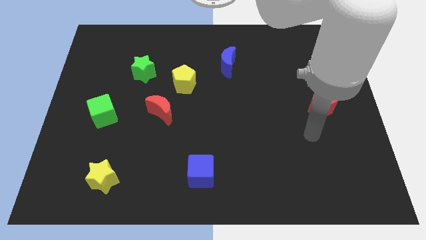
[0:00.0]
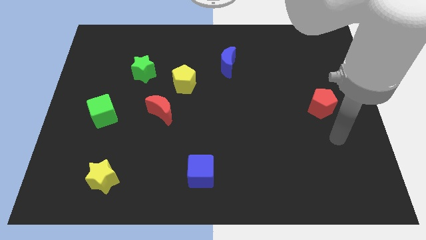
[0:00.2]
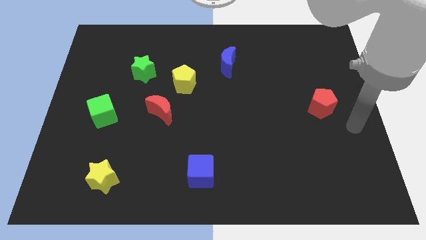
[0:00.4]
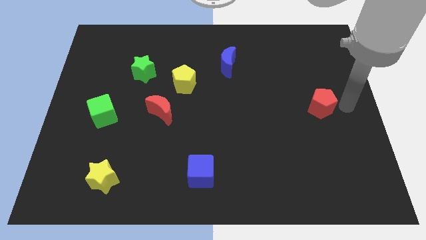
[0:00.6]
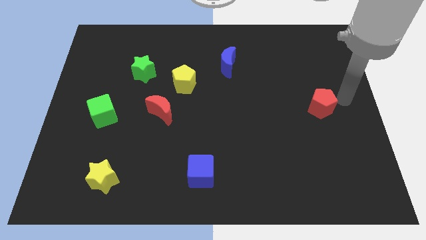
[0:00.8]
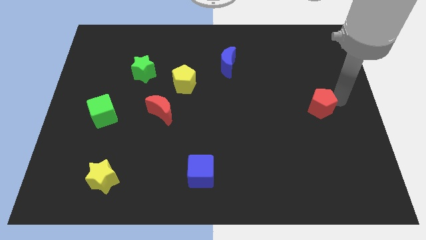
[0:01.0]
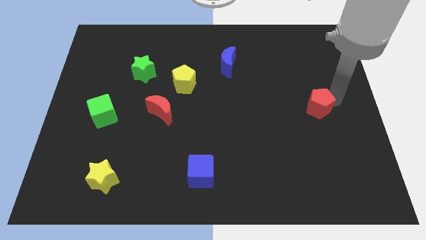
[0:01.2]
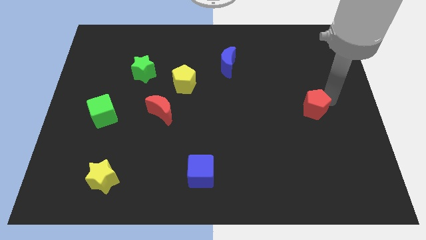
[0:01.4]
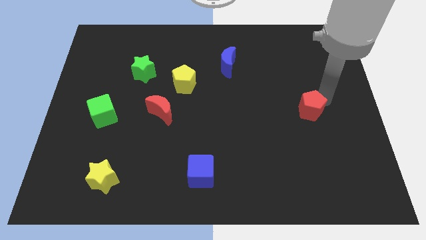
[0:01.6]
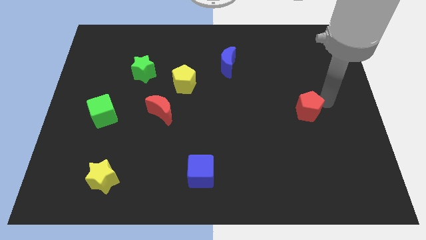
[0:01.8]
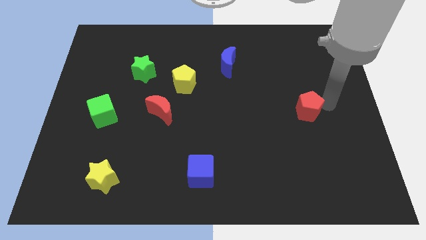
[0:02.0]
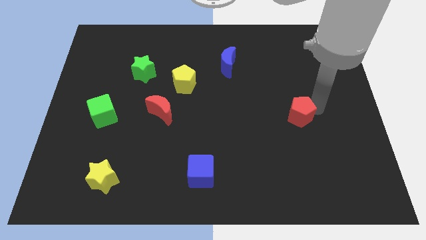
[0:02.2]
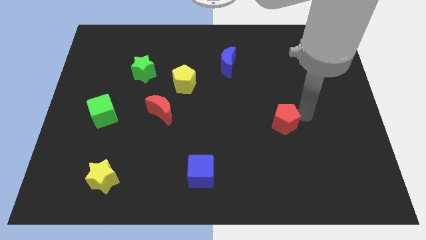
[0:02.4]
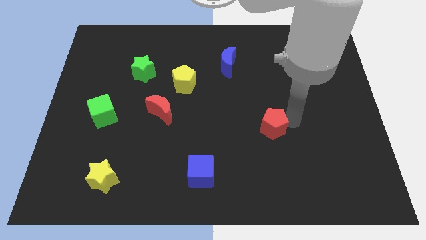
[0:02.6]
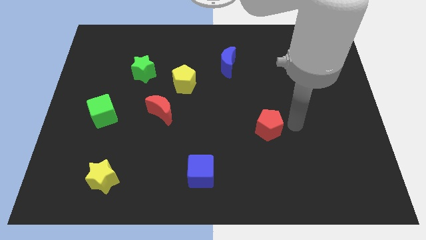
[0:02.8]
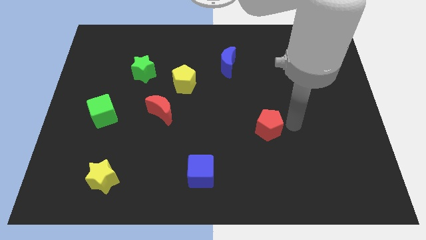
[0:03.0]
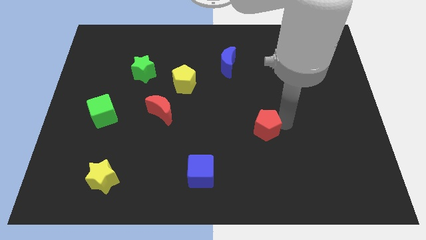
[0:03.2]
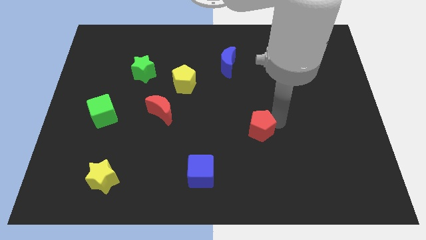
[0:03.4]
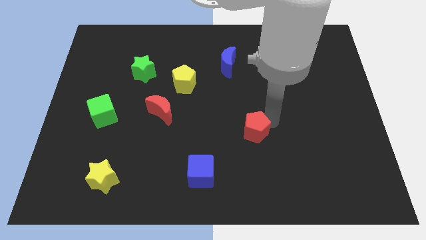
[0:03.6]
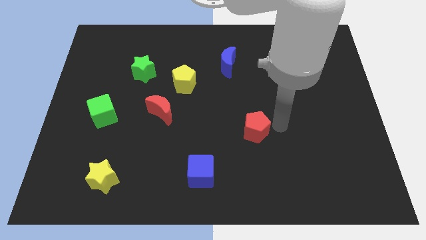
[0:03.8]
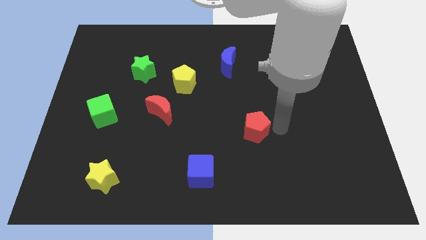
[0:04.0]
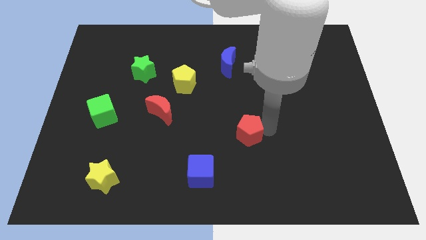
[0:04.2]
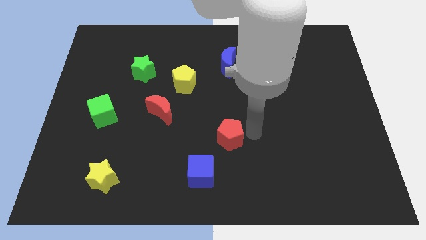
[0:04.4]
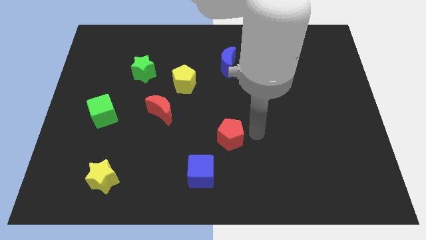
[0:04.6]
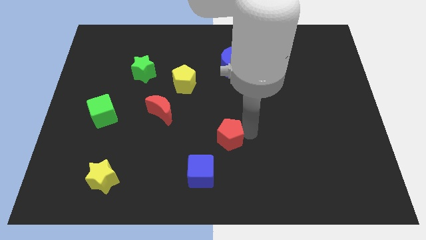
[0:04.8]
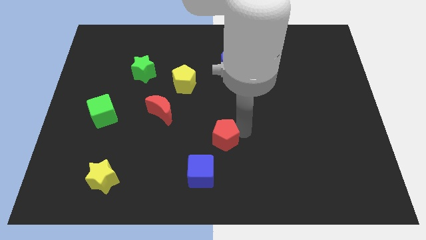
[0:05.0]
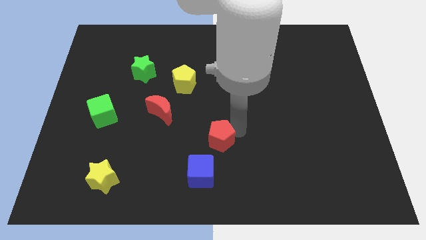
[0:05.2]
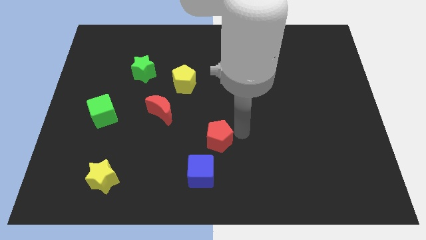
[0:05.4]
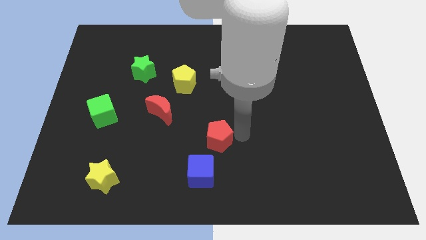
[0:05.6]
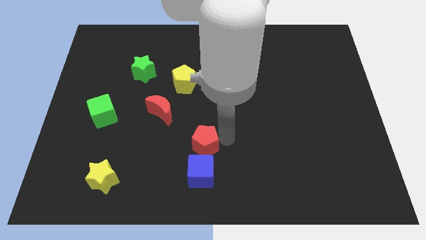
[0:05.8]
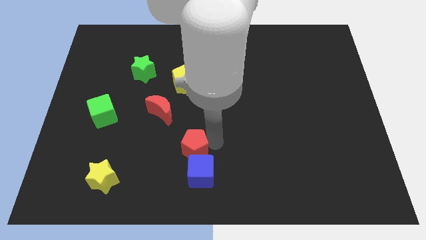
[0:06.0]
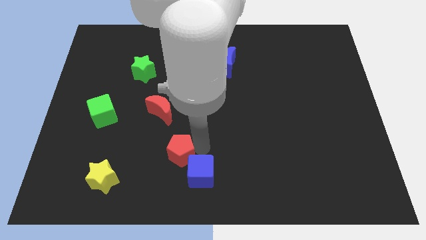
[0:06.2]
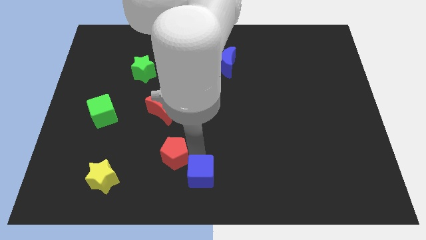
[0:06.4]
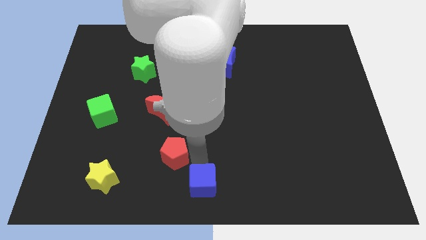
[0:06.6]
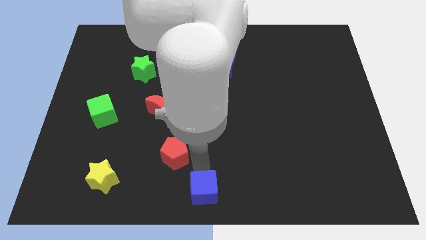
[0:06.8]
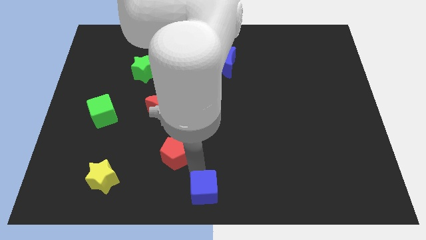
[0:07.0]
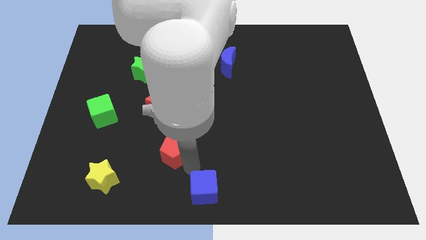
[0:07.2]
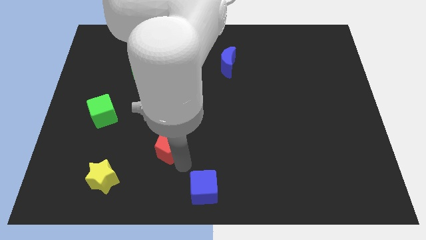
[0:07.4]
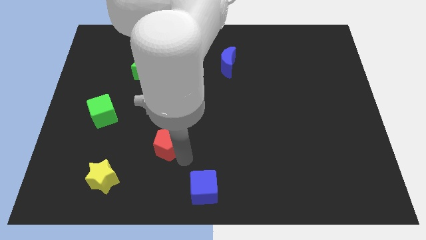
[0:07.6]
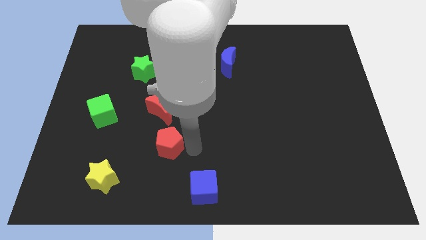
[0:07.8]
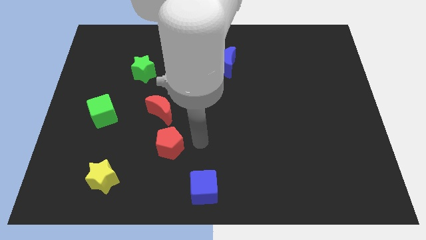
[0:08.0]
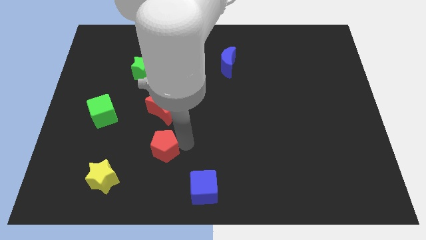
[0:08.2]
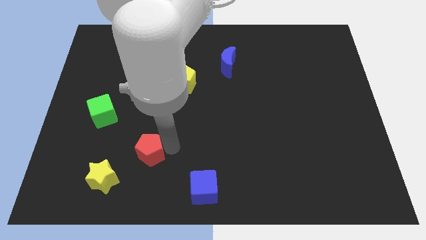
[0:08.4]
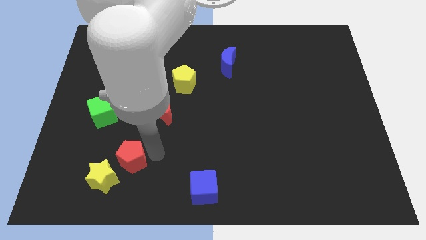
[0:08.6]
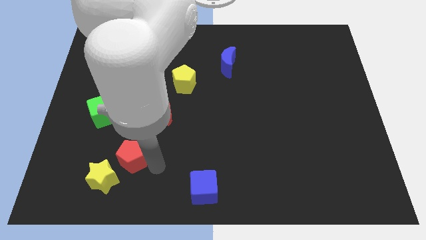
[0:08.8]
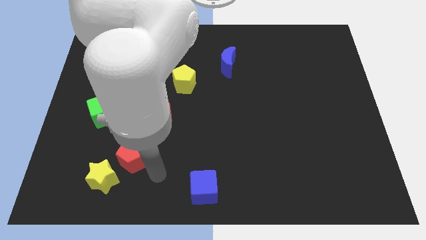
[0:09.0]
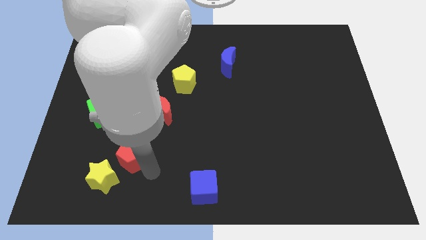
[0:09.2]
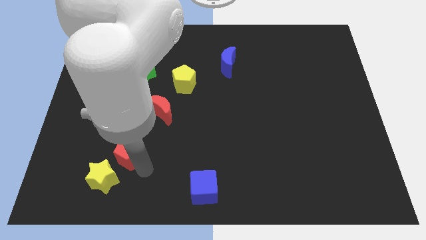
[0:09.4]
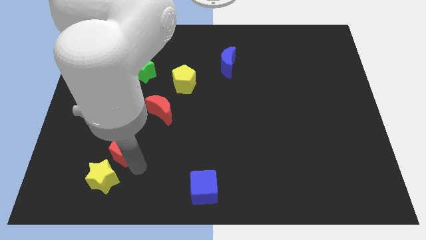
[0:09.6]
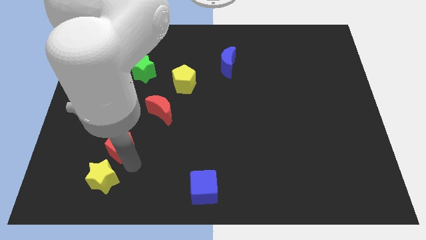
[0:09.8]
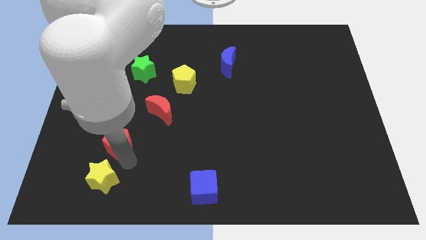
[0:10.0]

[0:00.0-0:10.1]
put the red pentagon to the bottom side of the green cube

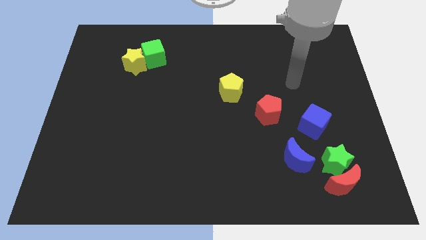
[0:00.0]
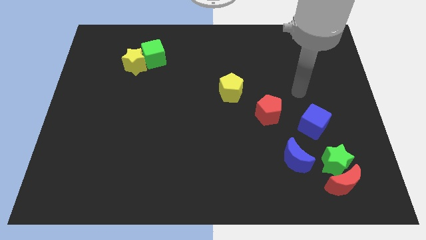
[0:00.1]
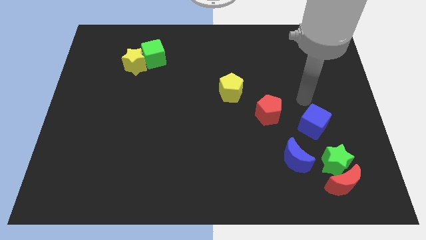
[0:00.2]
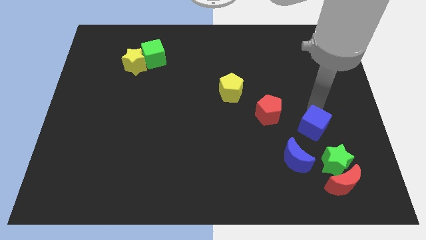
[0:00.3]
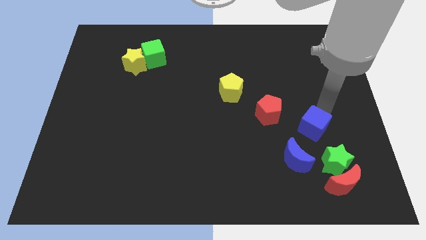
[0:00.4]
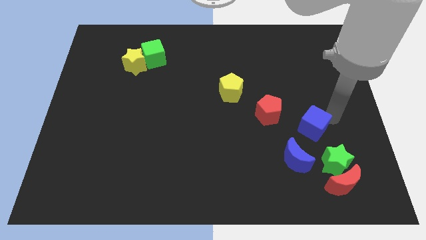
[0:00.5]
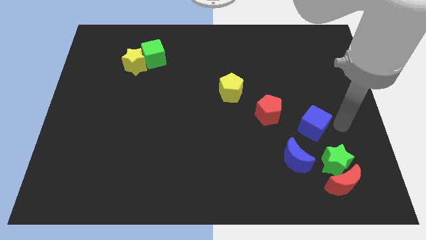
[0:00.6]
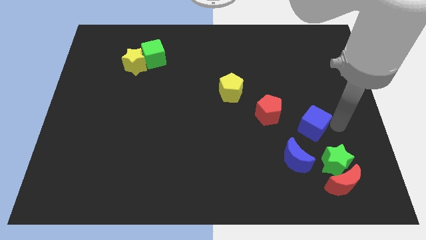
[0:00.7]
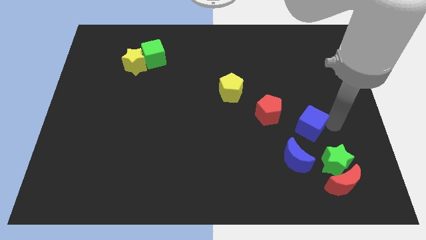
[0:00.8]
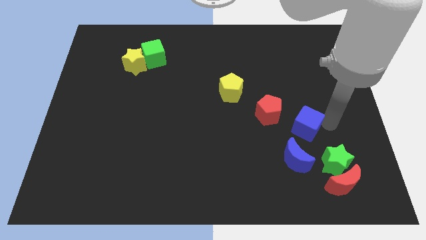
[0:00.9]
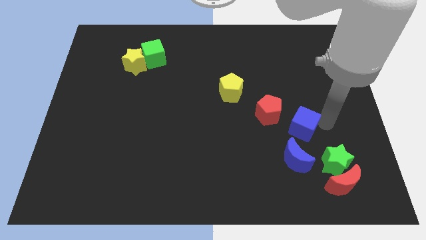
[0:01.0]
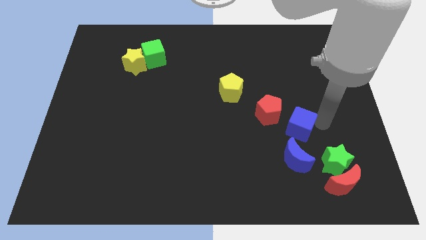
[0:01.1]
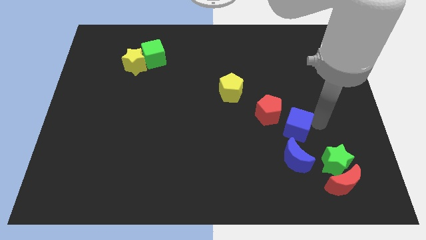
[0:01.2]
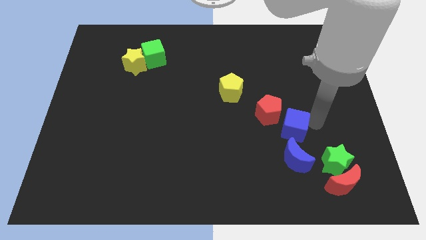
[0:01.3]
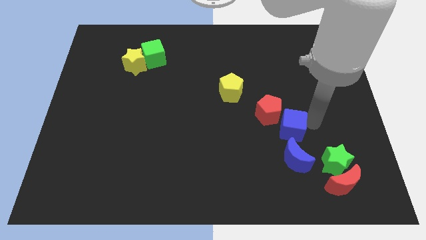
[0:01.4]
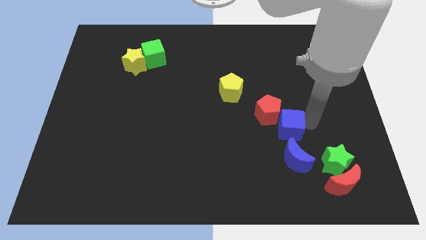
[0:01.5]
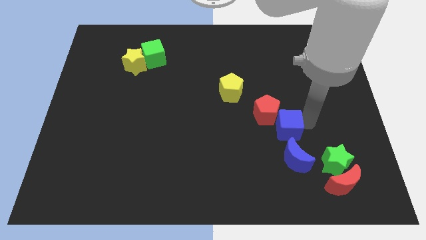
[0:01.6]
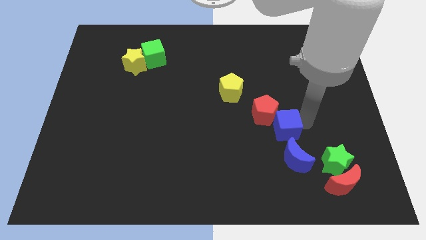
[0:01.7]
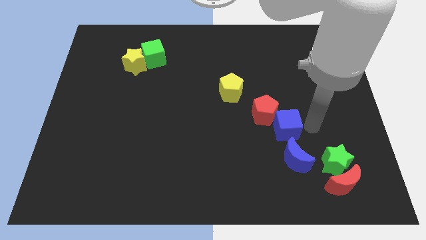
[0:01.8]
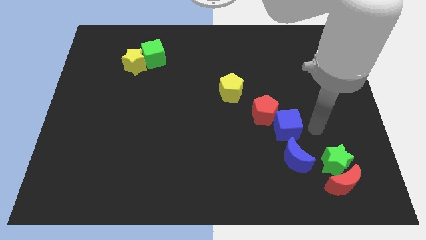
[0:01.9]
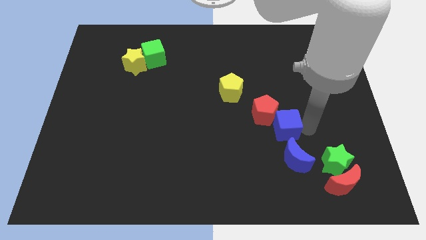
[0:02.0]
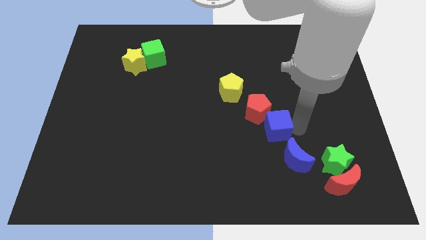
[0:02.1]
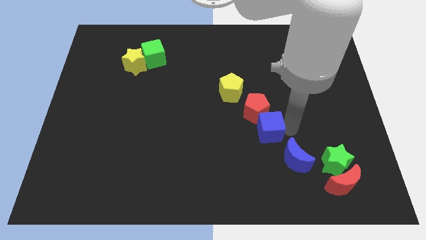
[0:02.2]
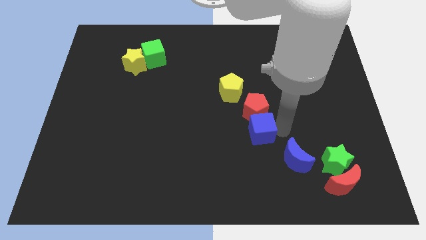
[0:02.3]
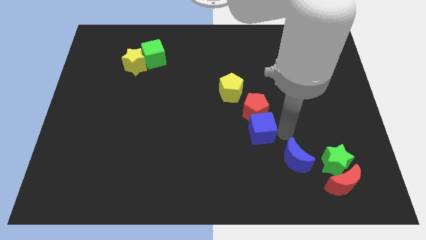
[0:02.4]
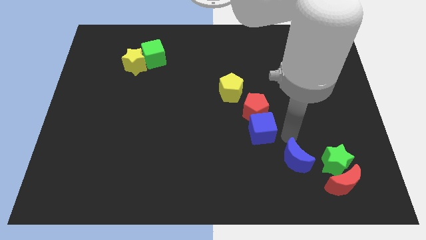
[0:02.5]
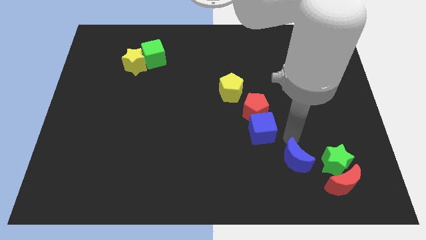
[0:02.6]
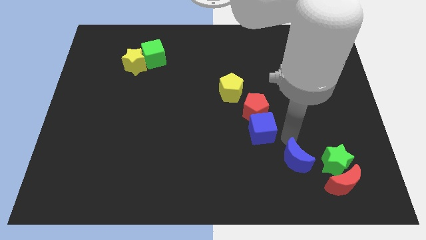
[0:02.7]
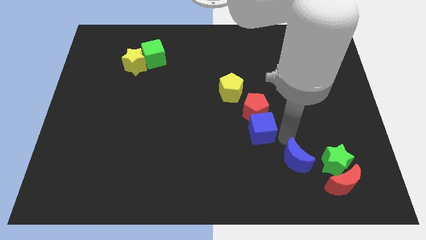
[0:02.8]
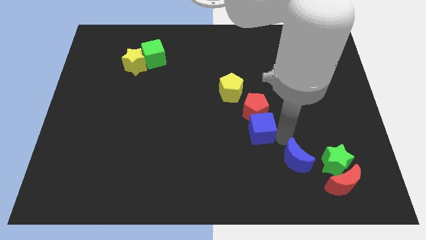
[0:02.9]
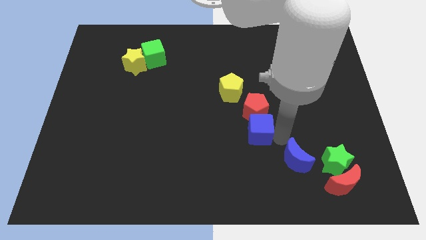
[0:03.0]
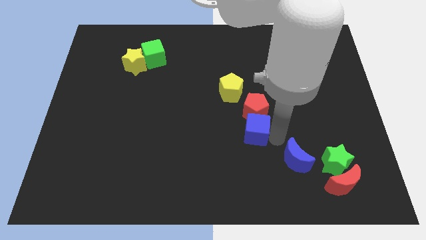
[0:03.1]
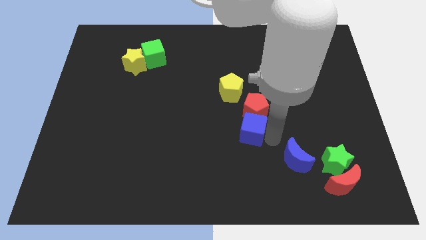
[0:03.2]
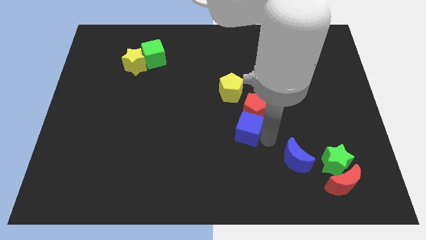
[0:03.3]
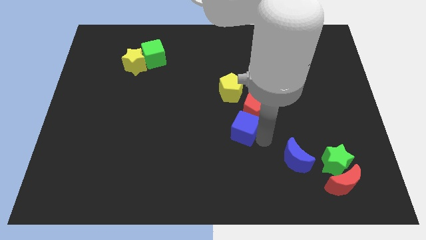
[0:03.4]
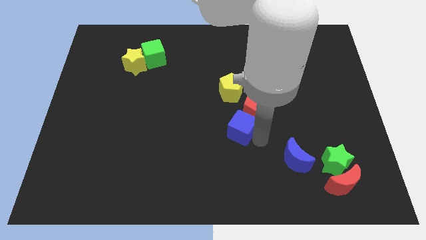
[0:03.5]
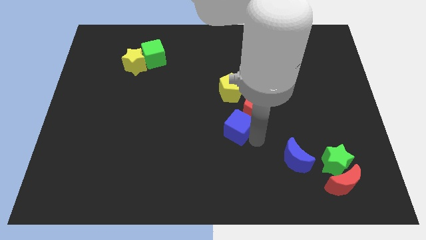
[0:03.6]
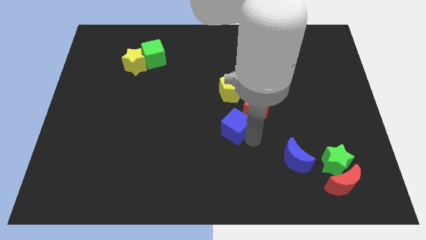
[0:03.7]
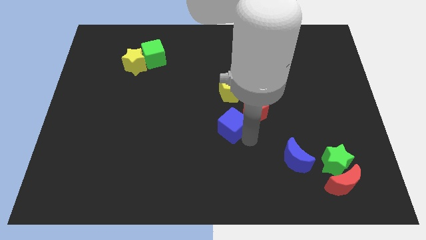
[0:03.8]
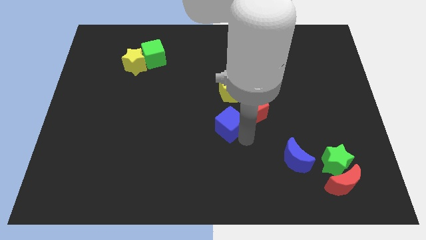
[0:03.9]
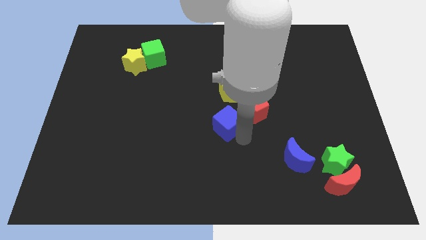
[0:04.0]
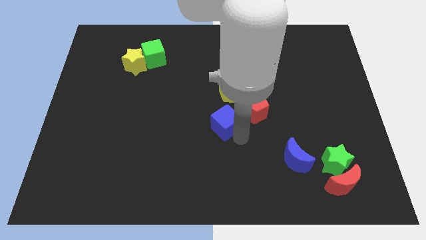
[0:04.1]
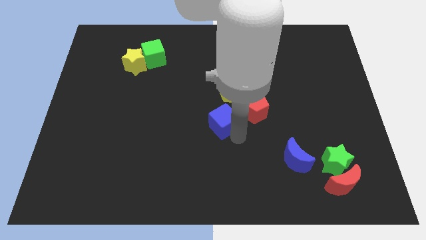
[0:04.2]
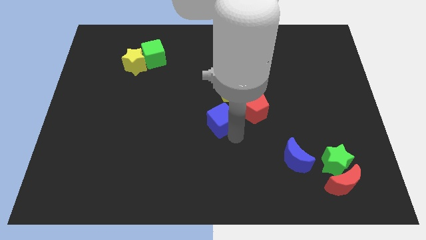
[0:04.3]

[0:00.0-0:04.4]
move the blue cube to the bottom left side of the yellow pentagon
